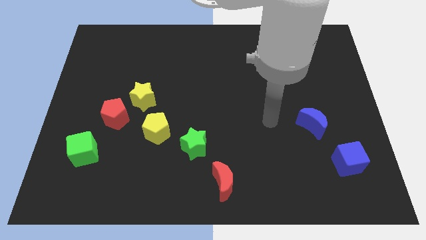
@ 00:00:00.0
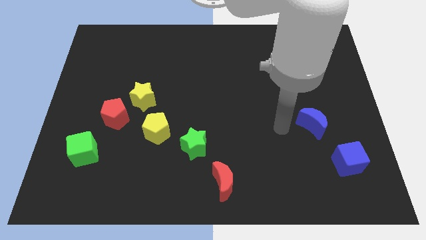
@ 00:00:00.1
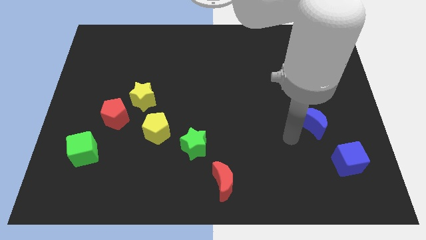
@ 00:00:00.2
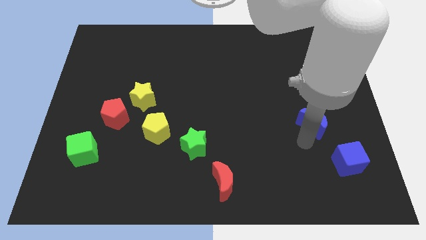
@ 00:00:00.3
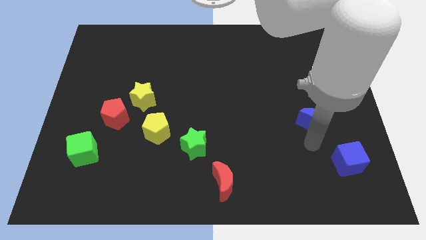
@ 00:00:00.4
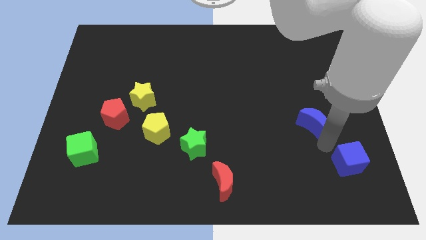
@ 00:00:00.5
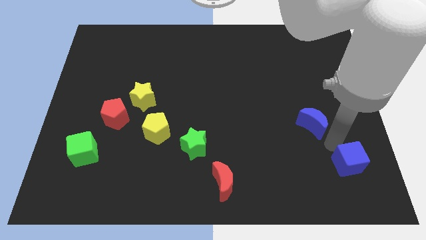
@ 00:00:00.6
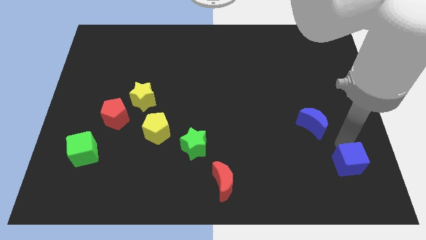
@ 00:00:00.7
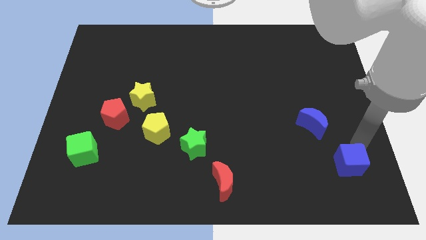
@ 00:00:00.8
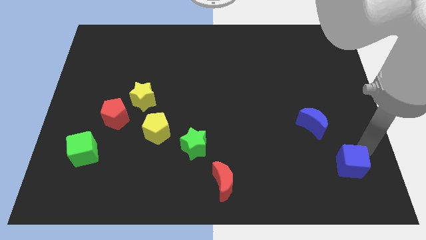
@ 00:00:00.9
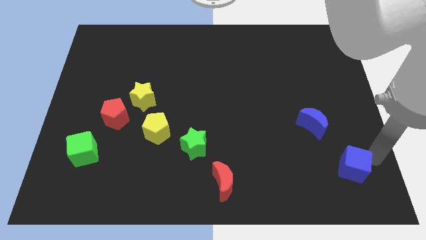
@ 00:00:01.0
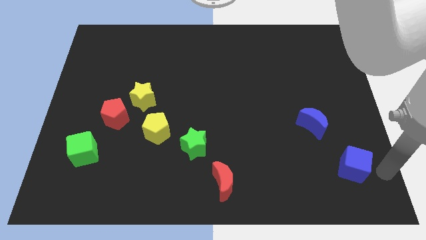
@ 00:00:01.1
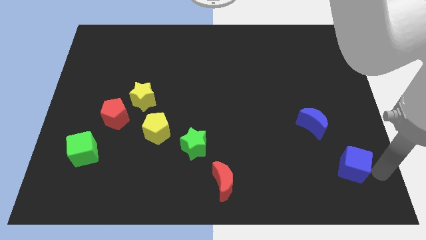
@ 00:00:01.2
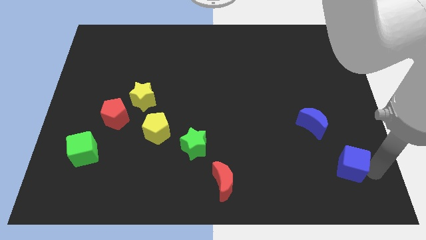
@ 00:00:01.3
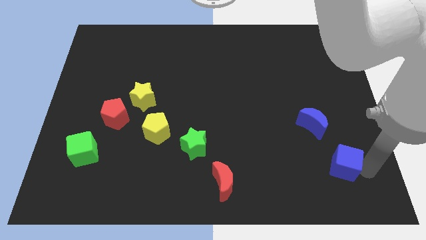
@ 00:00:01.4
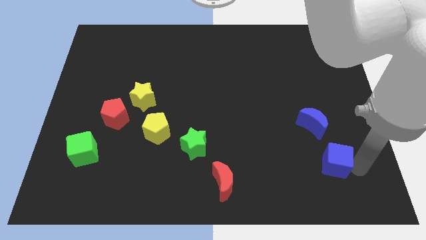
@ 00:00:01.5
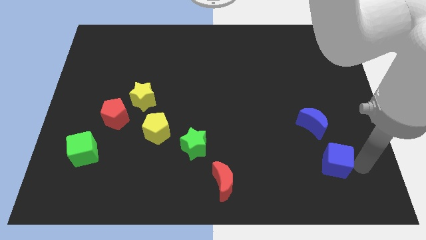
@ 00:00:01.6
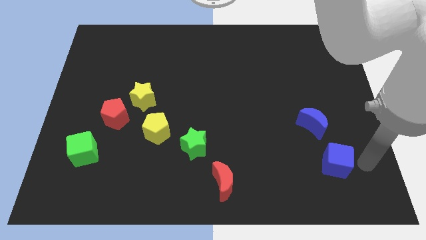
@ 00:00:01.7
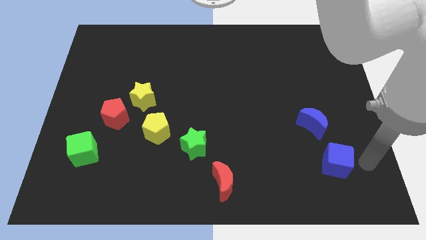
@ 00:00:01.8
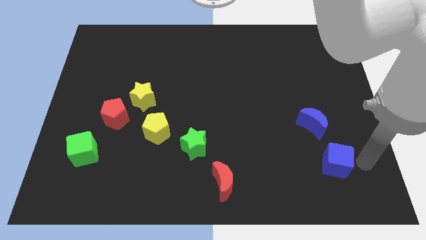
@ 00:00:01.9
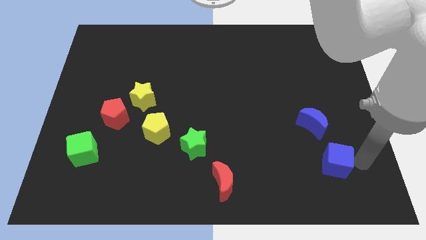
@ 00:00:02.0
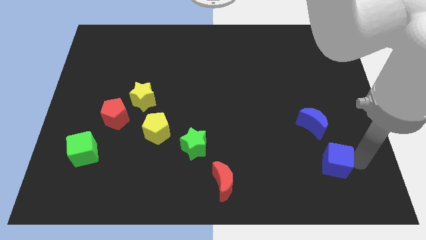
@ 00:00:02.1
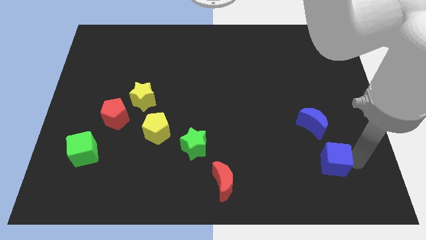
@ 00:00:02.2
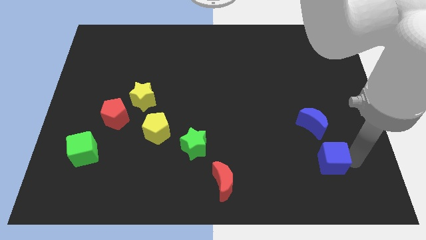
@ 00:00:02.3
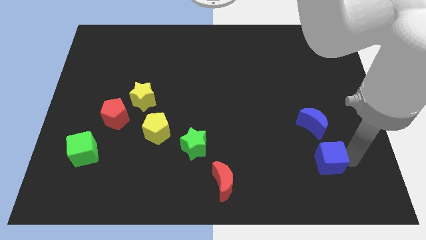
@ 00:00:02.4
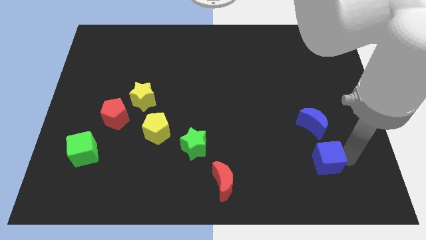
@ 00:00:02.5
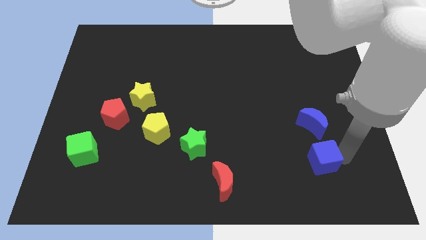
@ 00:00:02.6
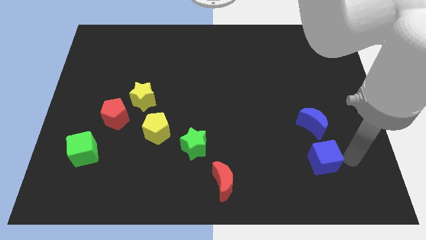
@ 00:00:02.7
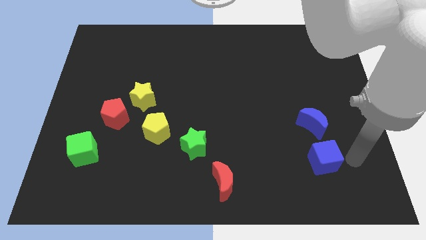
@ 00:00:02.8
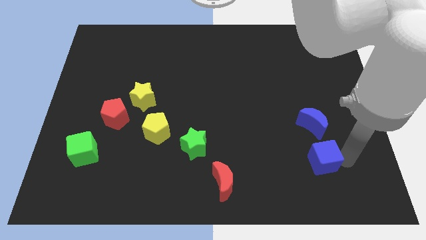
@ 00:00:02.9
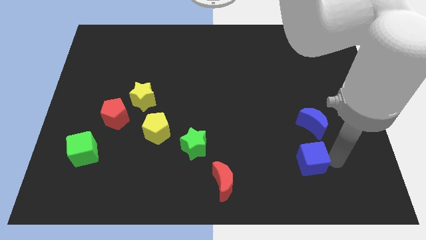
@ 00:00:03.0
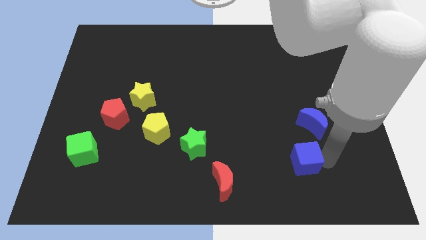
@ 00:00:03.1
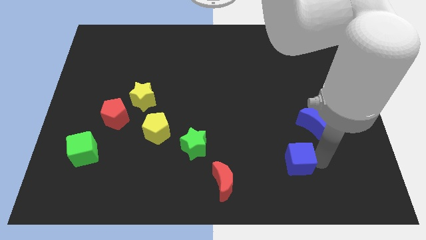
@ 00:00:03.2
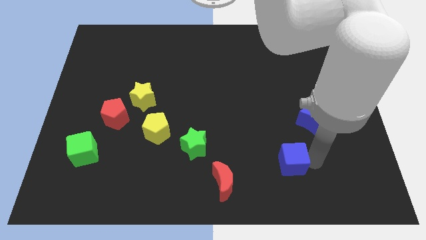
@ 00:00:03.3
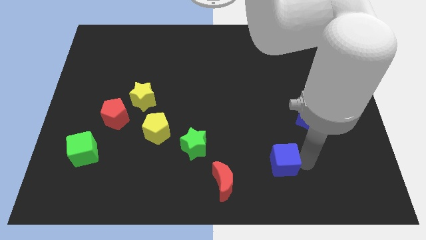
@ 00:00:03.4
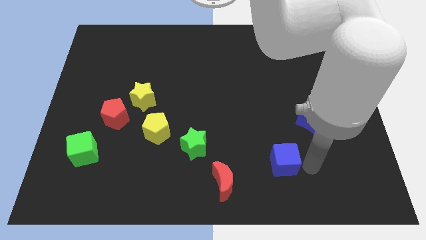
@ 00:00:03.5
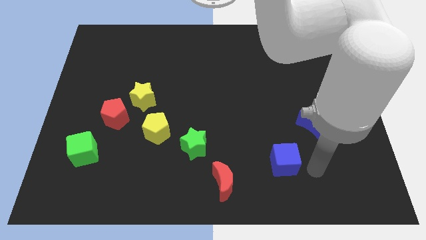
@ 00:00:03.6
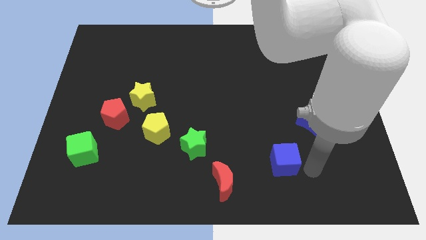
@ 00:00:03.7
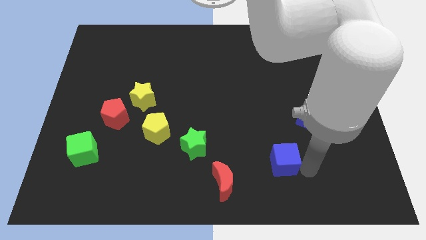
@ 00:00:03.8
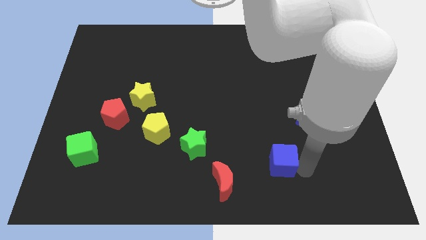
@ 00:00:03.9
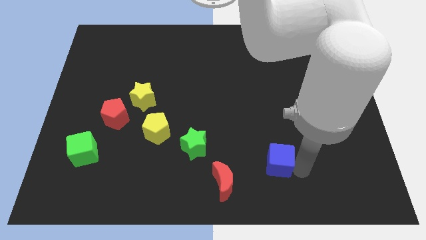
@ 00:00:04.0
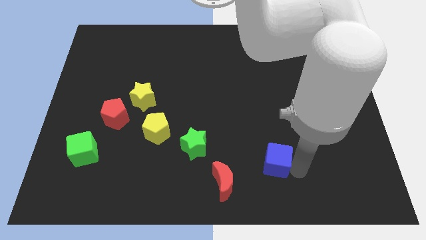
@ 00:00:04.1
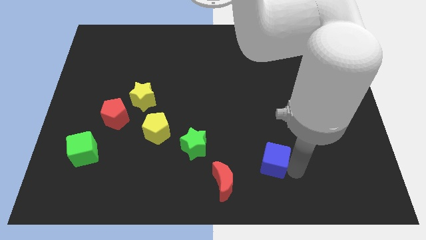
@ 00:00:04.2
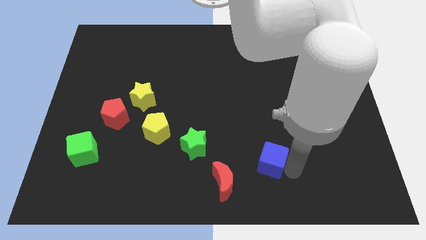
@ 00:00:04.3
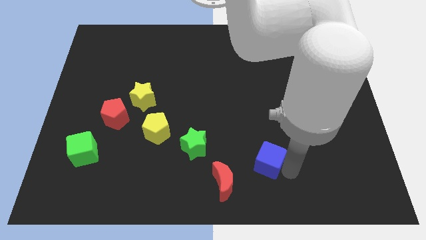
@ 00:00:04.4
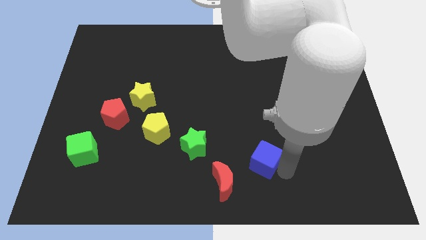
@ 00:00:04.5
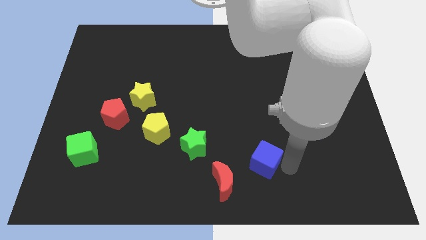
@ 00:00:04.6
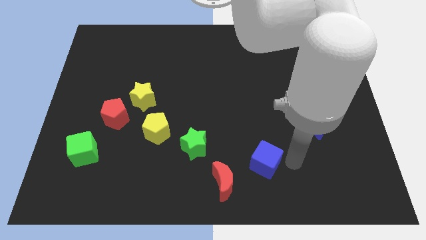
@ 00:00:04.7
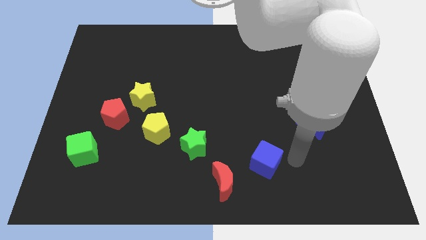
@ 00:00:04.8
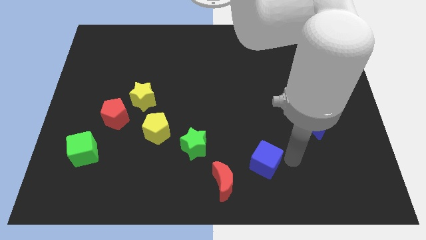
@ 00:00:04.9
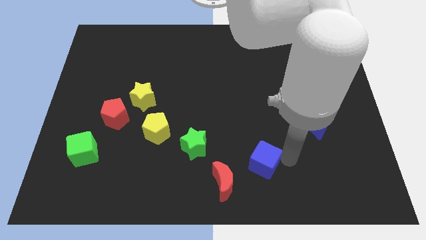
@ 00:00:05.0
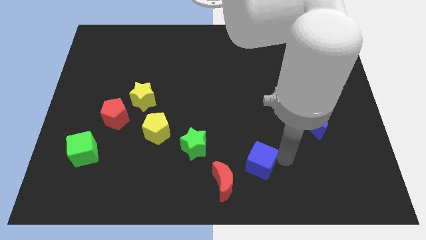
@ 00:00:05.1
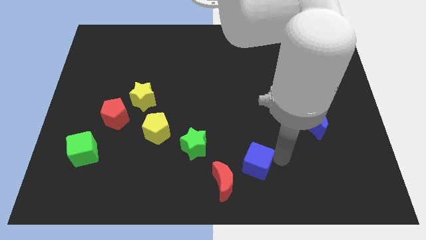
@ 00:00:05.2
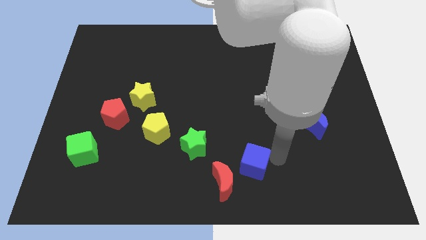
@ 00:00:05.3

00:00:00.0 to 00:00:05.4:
push the blue cube to the left

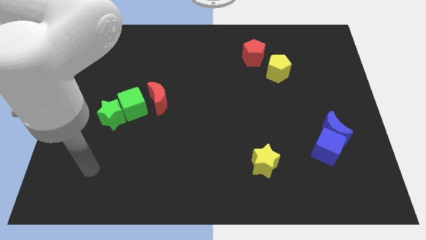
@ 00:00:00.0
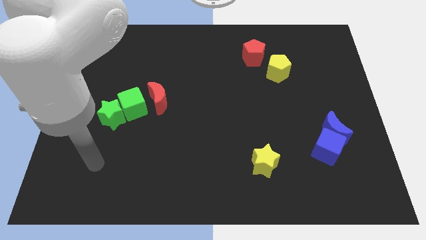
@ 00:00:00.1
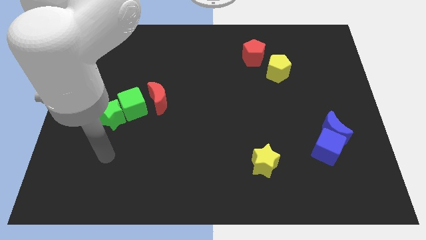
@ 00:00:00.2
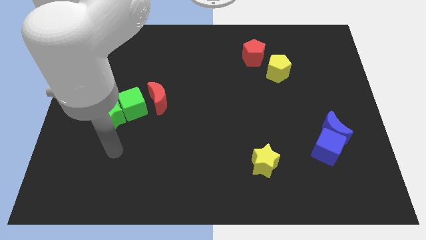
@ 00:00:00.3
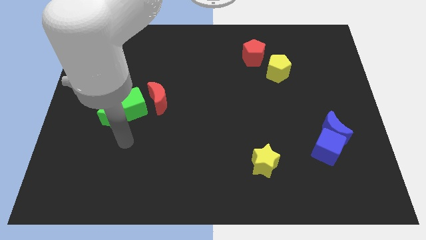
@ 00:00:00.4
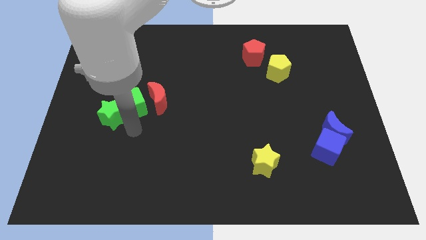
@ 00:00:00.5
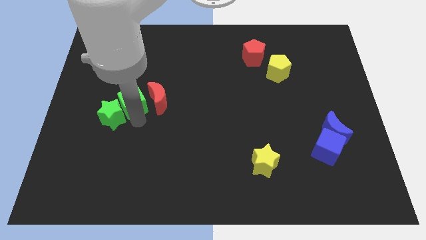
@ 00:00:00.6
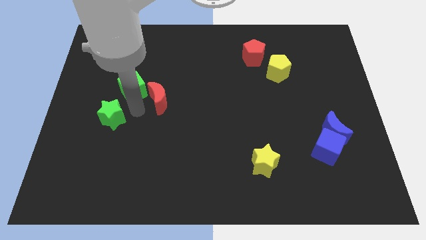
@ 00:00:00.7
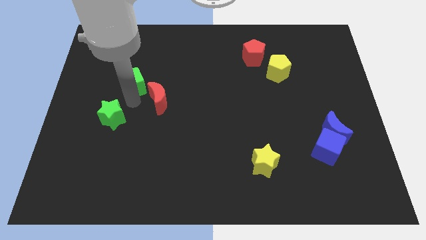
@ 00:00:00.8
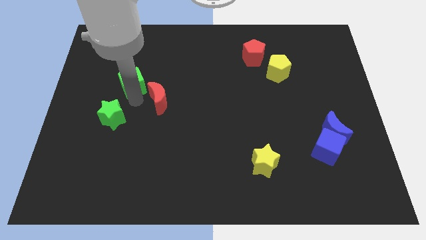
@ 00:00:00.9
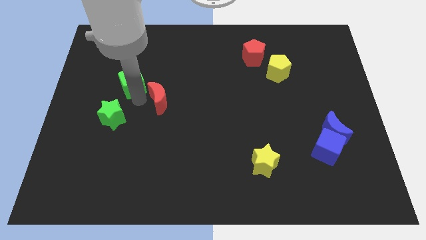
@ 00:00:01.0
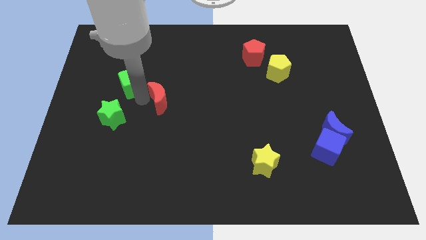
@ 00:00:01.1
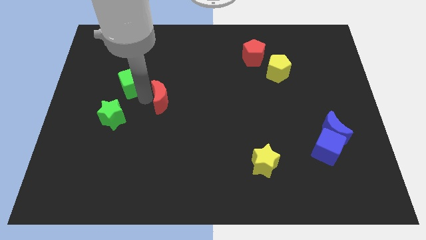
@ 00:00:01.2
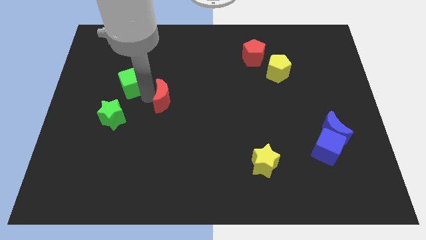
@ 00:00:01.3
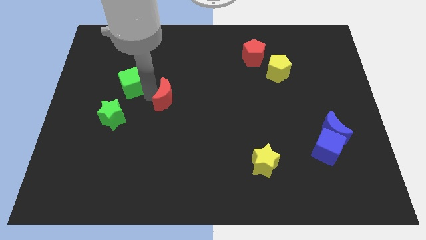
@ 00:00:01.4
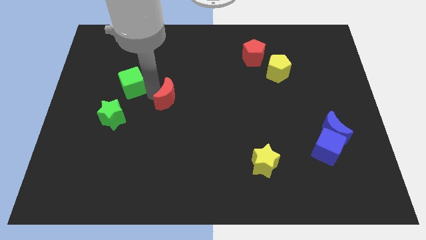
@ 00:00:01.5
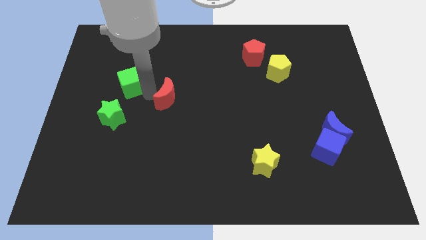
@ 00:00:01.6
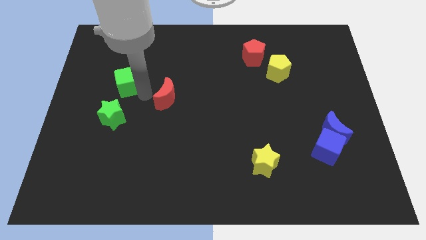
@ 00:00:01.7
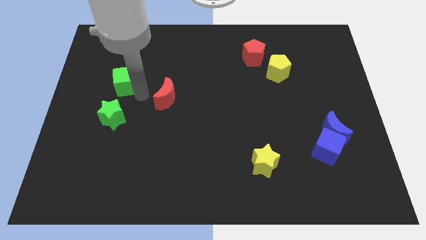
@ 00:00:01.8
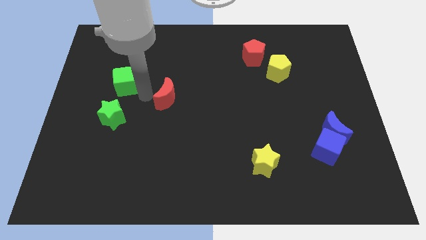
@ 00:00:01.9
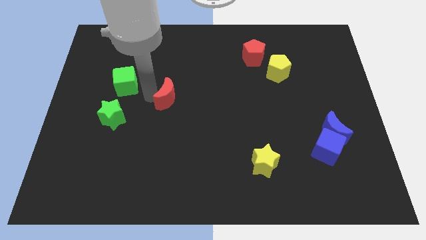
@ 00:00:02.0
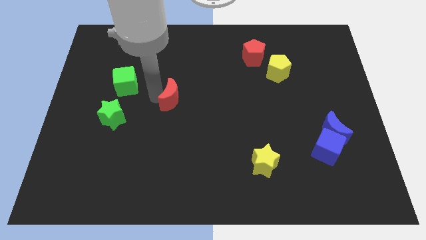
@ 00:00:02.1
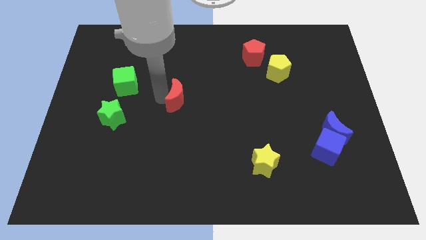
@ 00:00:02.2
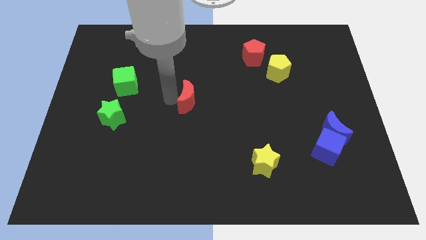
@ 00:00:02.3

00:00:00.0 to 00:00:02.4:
move the red moon right a bit
